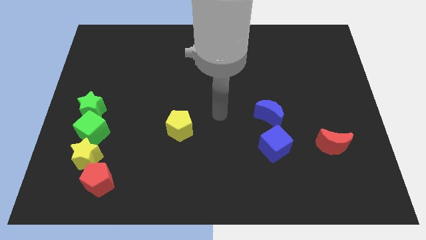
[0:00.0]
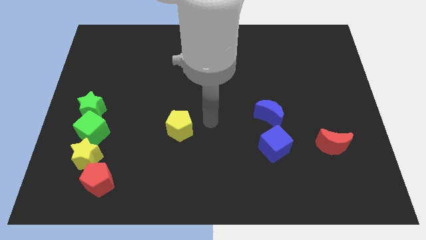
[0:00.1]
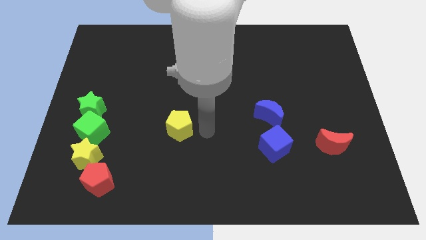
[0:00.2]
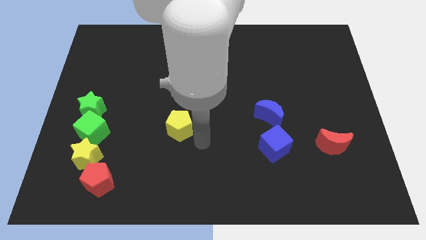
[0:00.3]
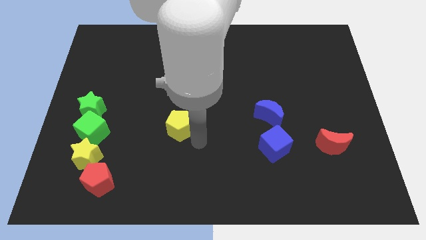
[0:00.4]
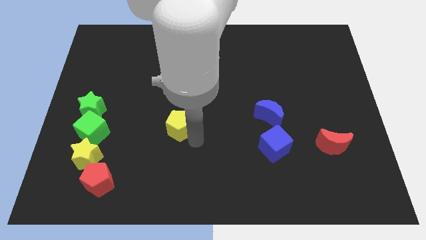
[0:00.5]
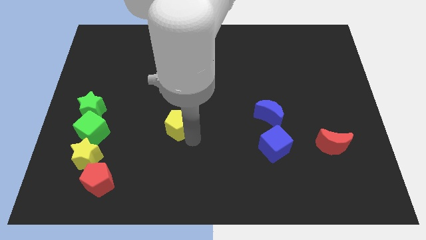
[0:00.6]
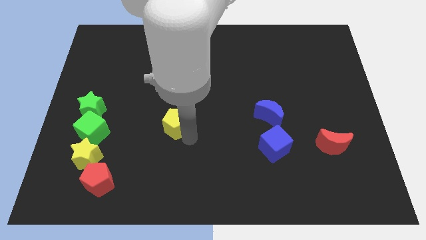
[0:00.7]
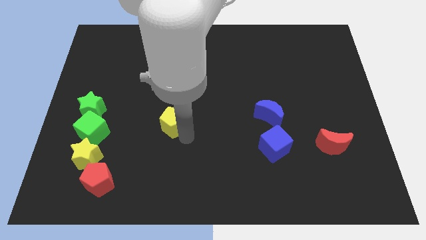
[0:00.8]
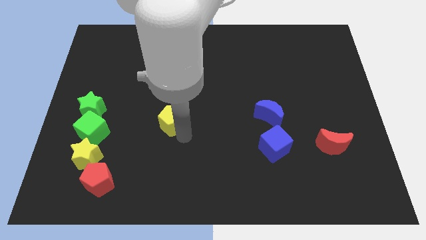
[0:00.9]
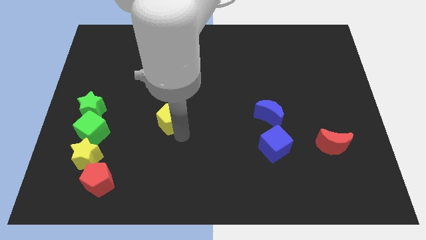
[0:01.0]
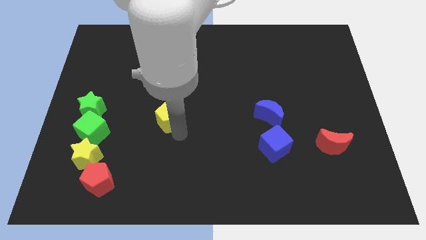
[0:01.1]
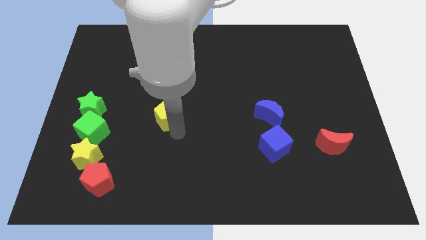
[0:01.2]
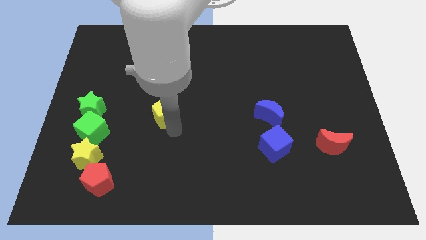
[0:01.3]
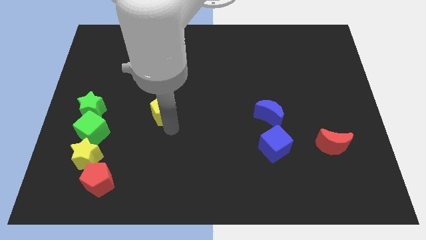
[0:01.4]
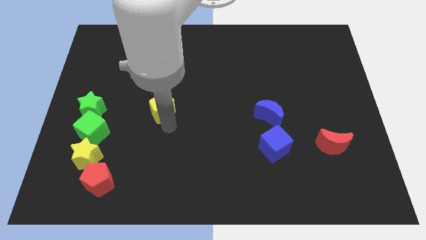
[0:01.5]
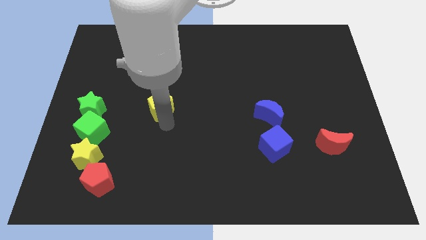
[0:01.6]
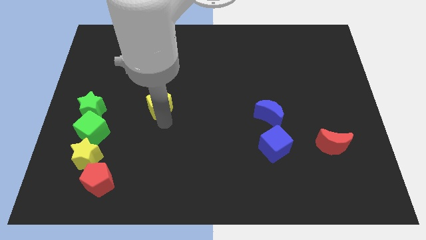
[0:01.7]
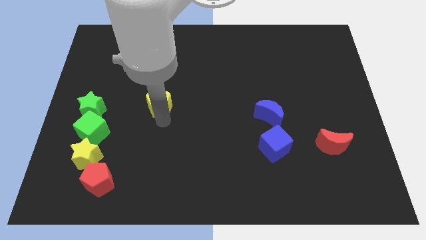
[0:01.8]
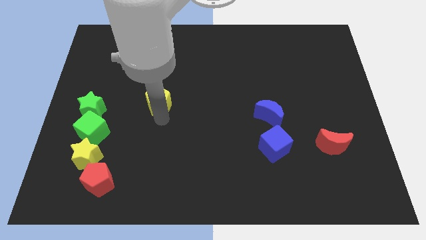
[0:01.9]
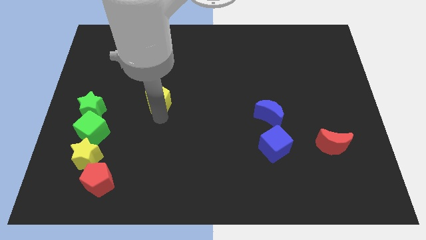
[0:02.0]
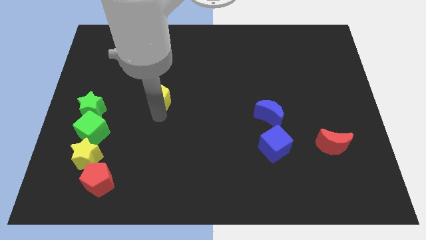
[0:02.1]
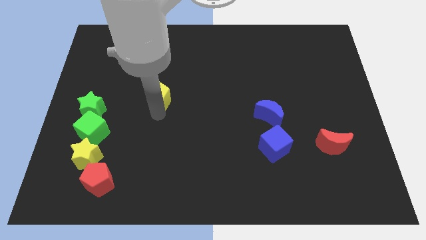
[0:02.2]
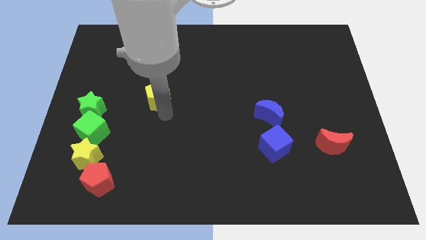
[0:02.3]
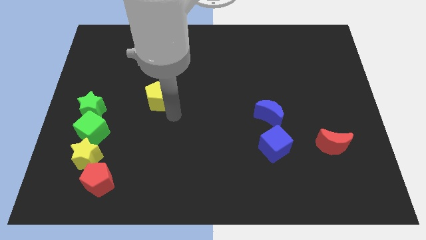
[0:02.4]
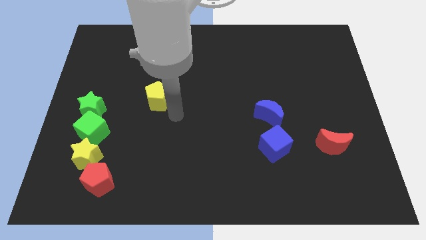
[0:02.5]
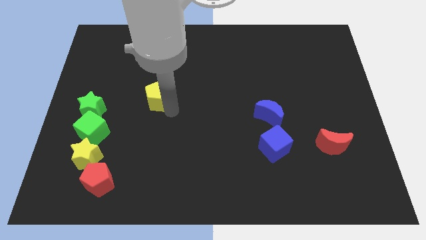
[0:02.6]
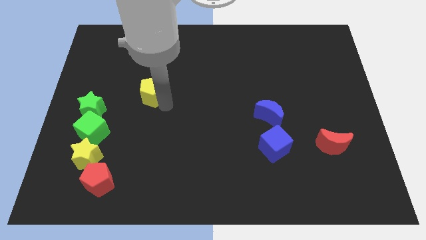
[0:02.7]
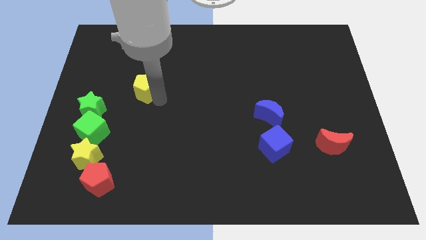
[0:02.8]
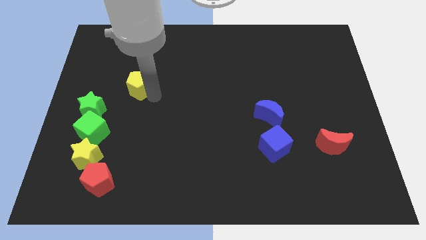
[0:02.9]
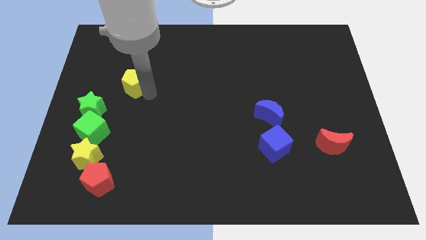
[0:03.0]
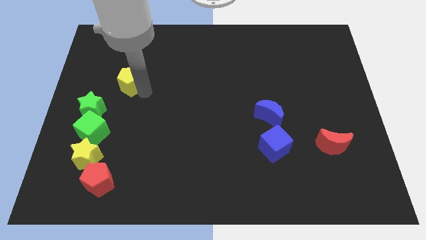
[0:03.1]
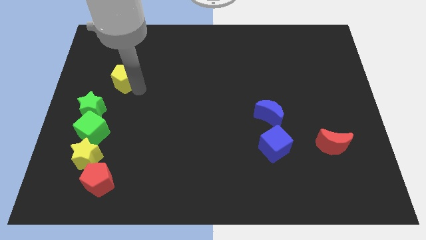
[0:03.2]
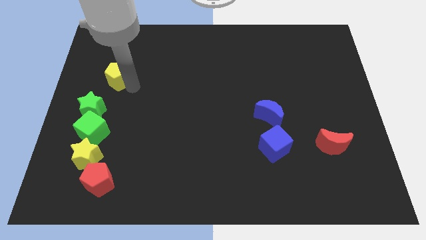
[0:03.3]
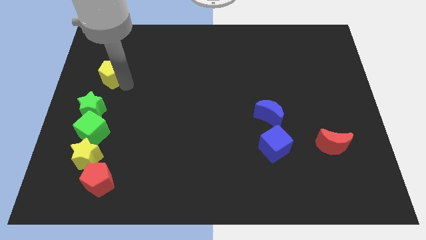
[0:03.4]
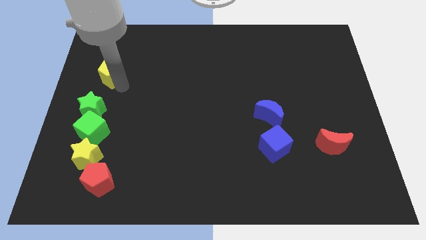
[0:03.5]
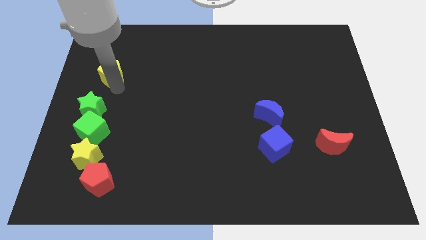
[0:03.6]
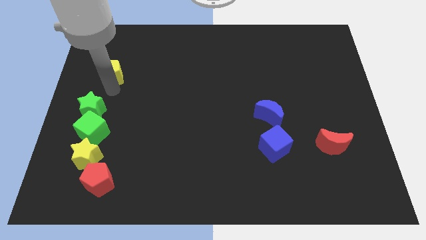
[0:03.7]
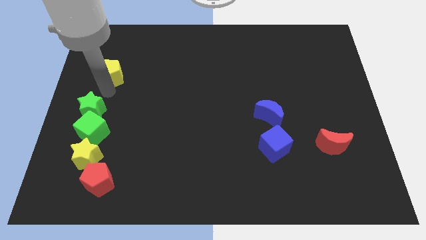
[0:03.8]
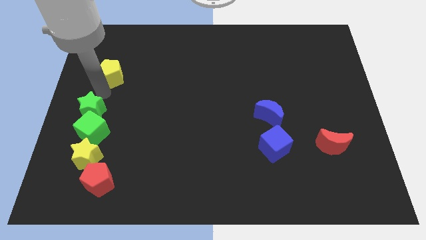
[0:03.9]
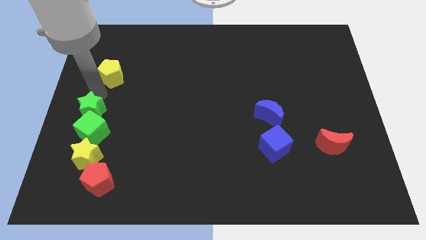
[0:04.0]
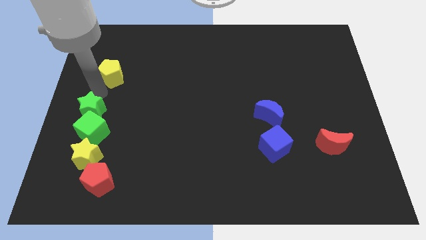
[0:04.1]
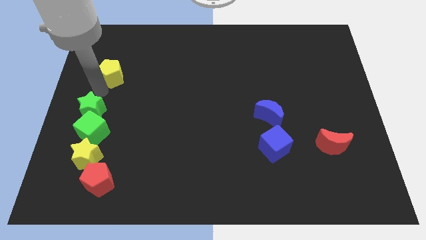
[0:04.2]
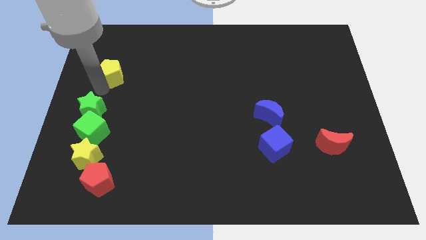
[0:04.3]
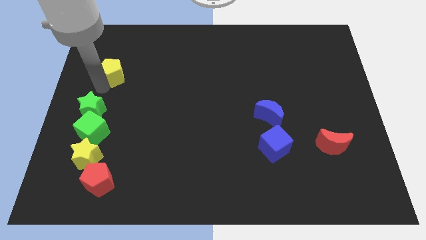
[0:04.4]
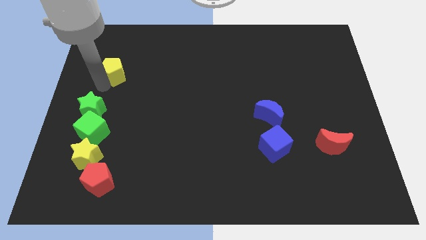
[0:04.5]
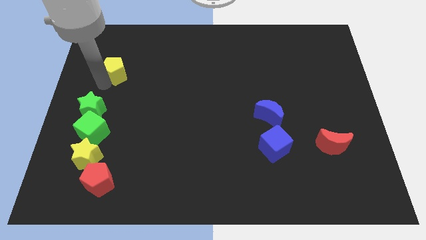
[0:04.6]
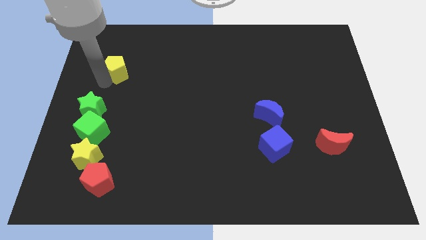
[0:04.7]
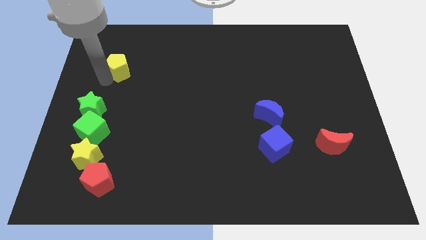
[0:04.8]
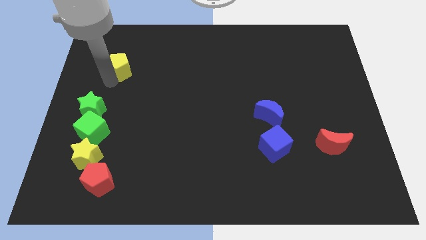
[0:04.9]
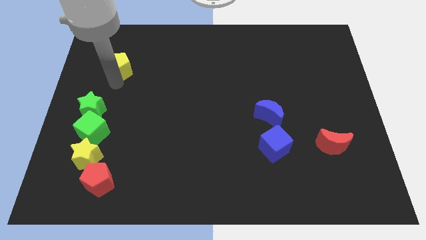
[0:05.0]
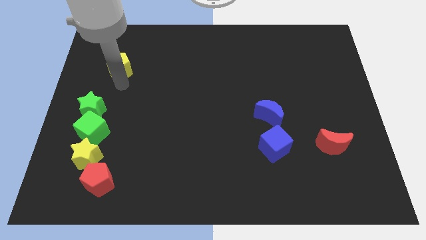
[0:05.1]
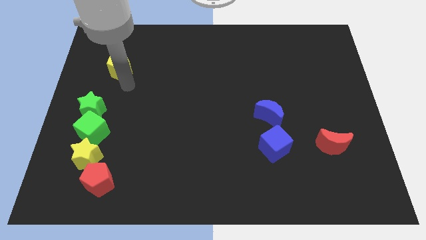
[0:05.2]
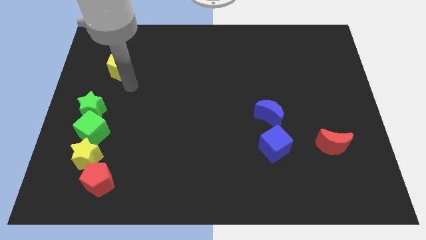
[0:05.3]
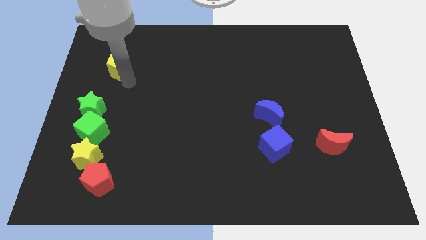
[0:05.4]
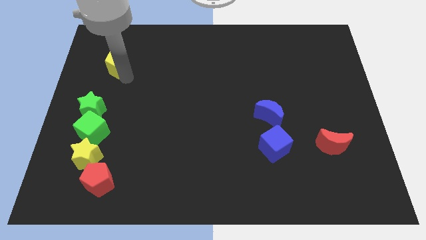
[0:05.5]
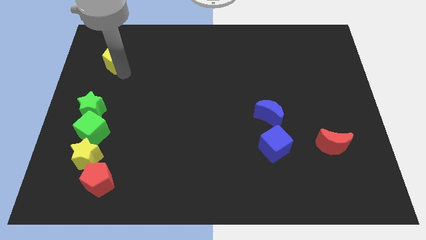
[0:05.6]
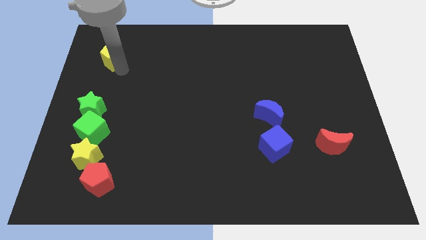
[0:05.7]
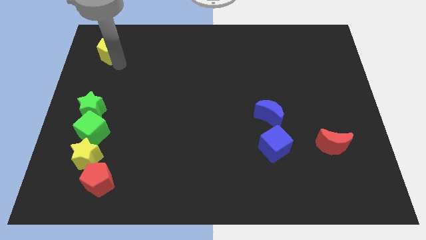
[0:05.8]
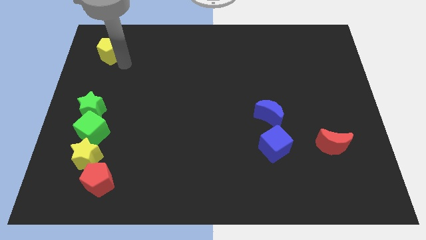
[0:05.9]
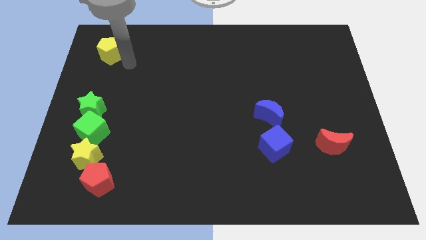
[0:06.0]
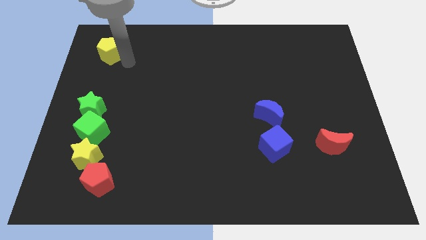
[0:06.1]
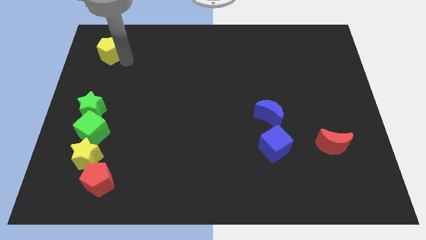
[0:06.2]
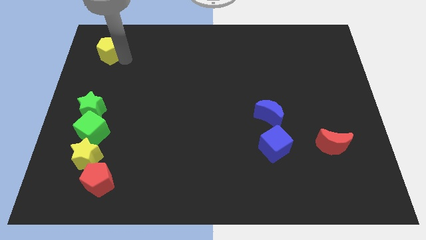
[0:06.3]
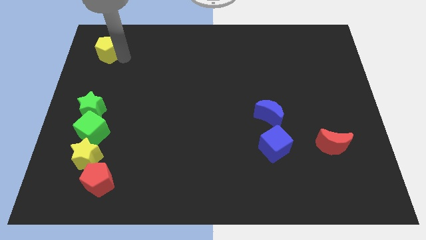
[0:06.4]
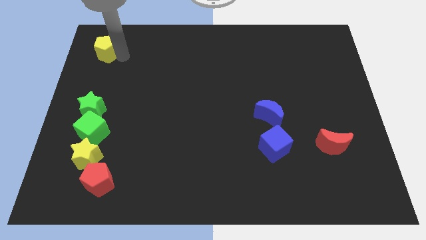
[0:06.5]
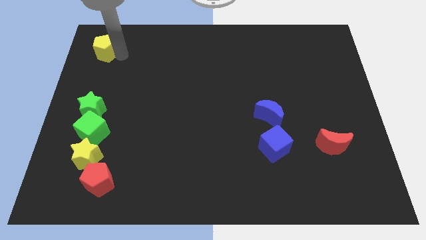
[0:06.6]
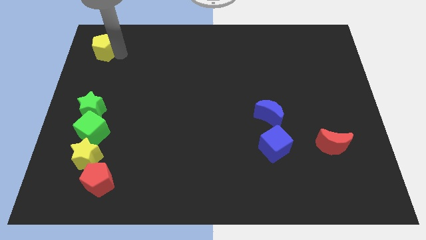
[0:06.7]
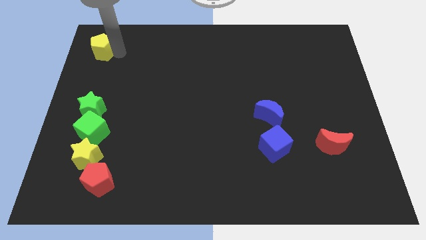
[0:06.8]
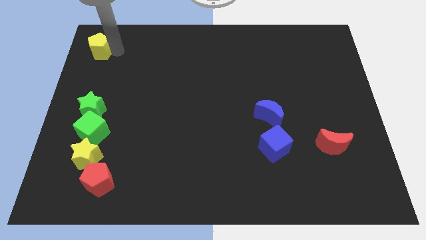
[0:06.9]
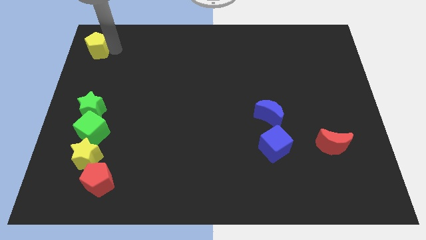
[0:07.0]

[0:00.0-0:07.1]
push the yellow pentagon to the top left corner
